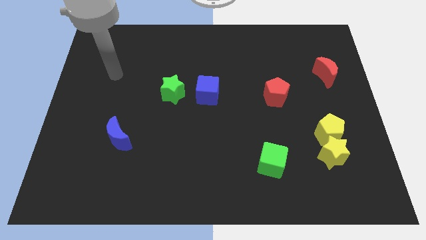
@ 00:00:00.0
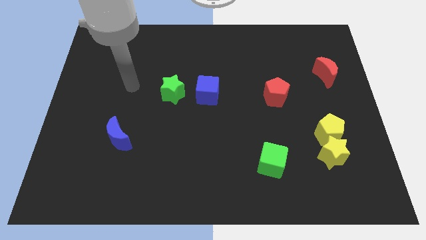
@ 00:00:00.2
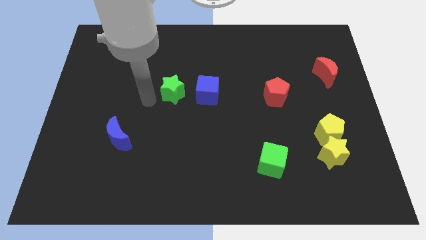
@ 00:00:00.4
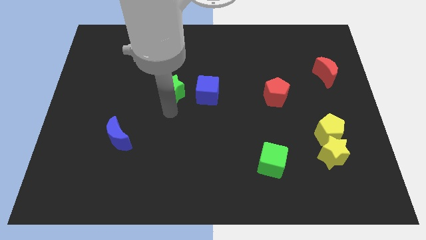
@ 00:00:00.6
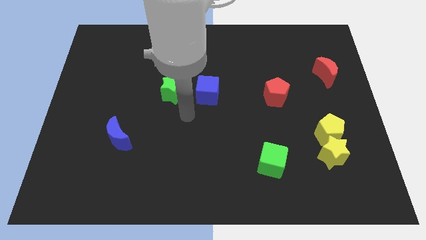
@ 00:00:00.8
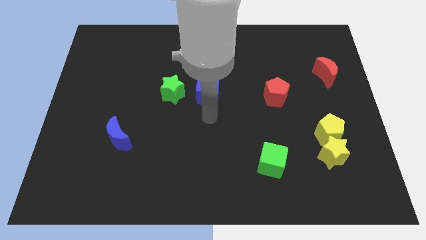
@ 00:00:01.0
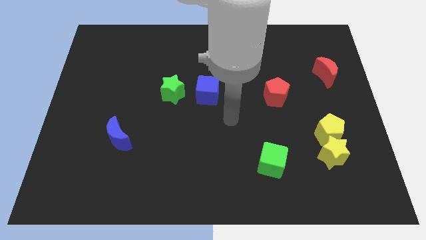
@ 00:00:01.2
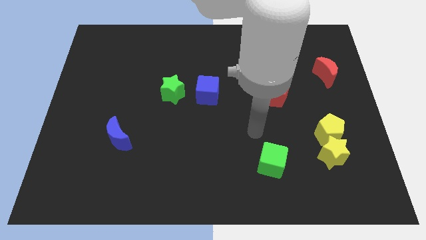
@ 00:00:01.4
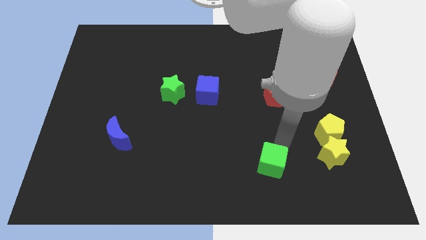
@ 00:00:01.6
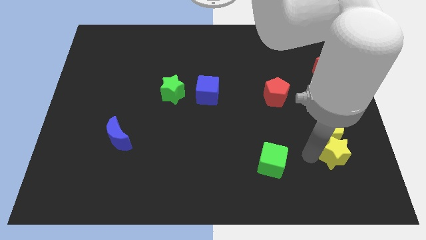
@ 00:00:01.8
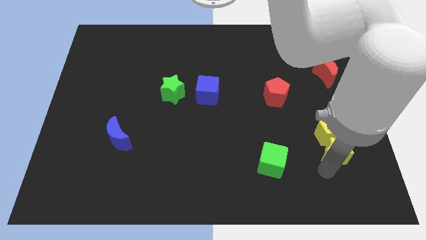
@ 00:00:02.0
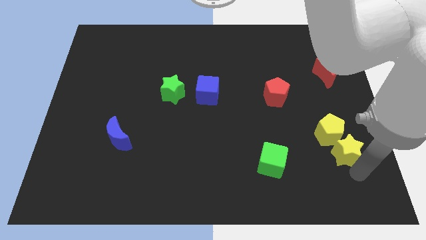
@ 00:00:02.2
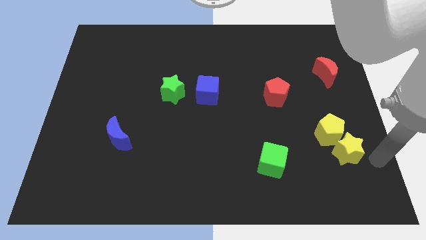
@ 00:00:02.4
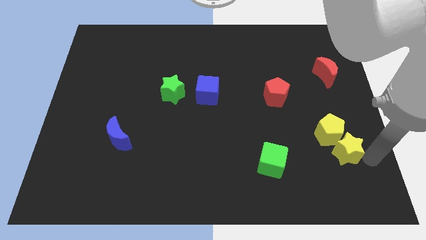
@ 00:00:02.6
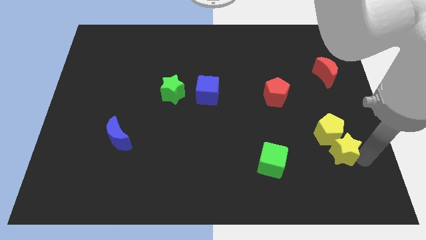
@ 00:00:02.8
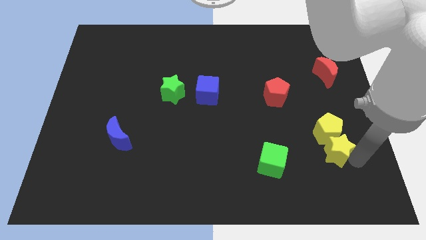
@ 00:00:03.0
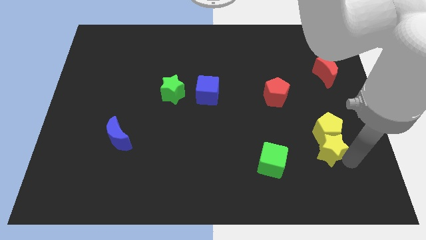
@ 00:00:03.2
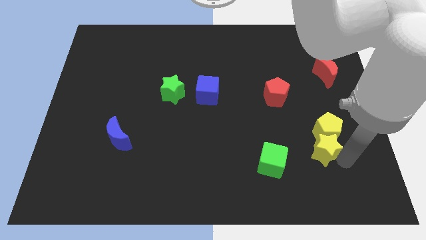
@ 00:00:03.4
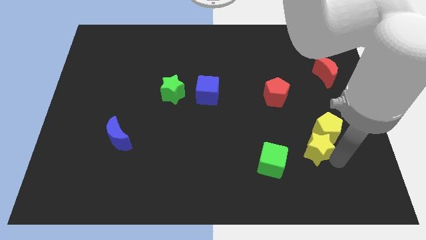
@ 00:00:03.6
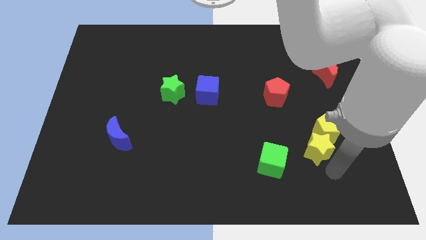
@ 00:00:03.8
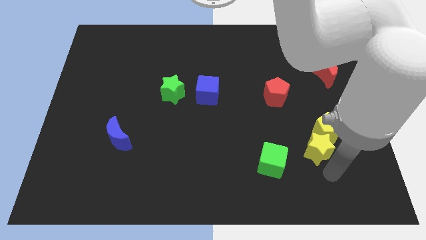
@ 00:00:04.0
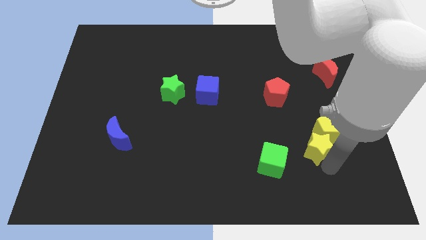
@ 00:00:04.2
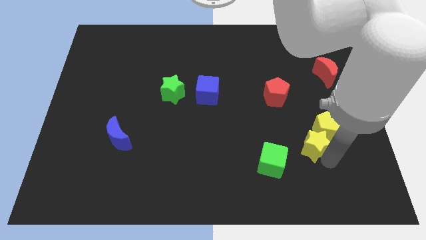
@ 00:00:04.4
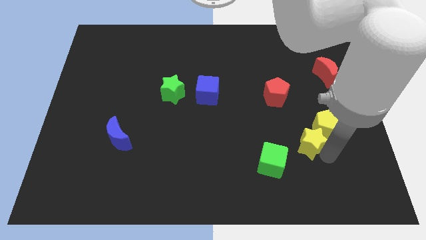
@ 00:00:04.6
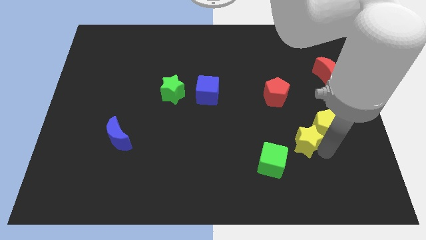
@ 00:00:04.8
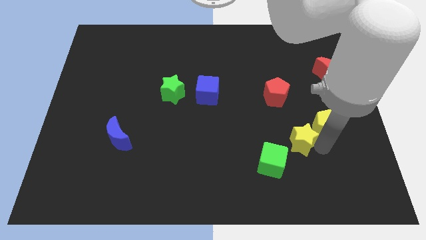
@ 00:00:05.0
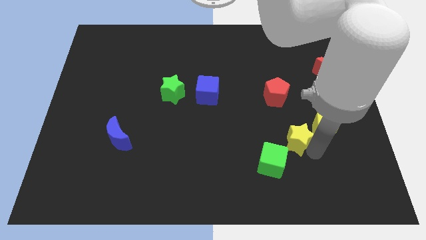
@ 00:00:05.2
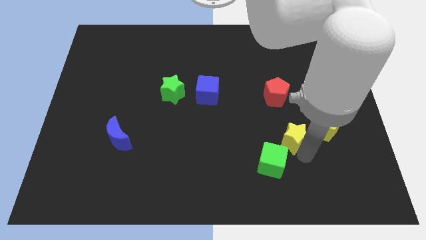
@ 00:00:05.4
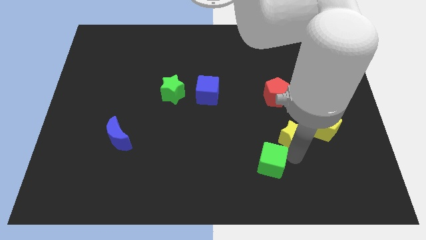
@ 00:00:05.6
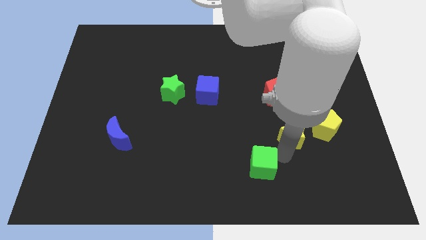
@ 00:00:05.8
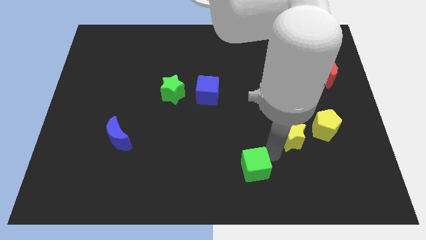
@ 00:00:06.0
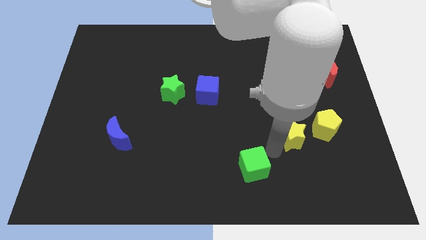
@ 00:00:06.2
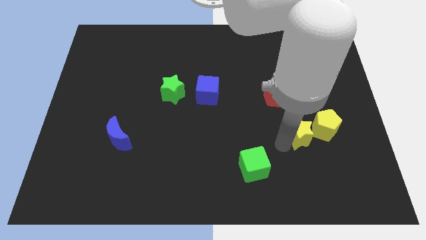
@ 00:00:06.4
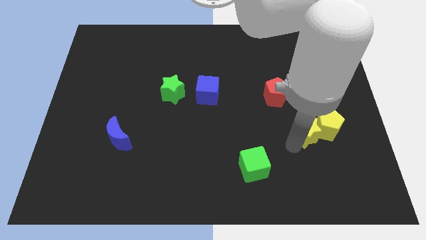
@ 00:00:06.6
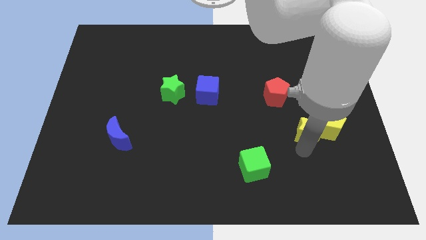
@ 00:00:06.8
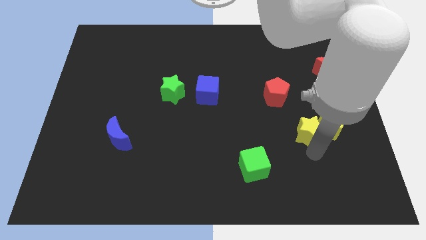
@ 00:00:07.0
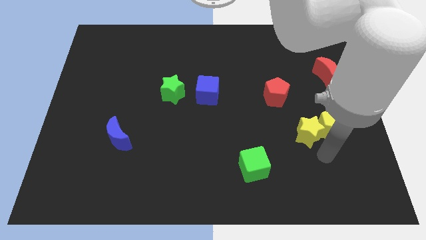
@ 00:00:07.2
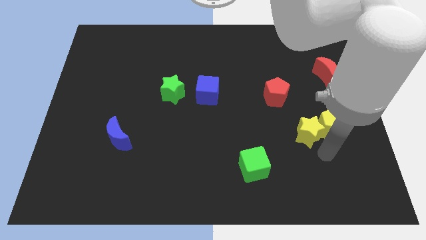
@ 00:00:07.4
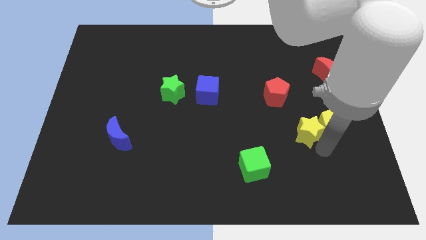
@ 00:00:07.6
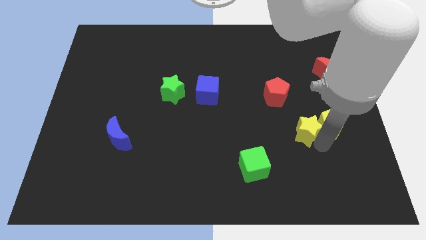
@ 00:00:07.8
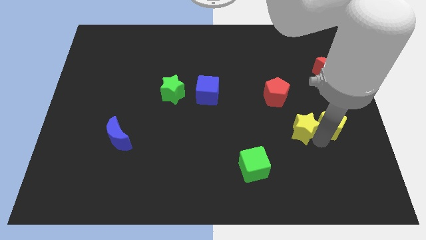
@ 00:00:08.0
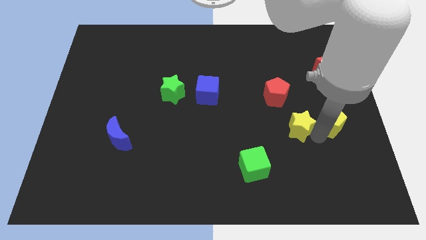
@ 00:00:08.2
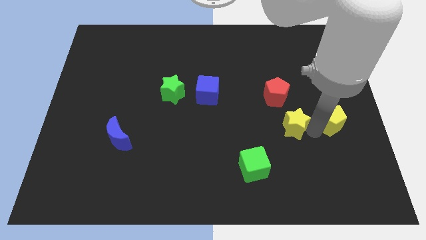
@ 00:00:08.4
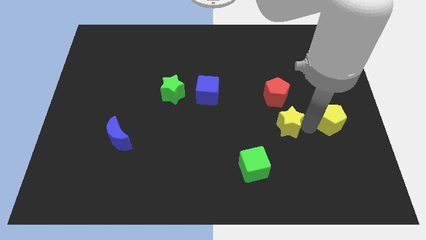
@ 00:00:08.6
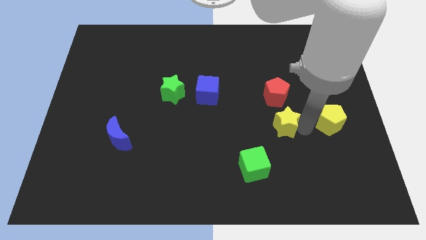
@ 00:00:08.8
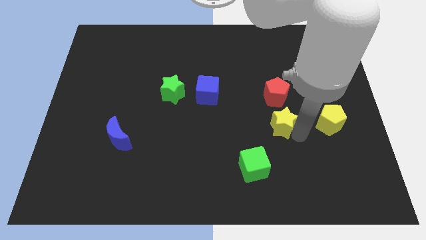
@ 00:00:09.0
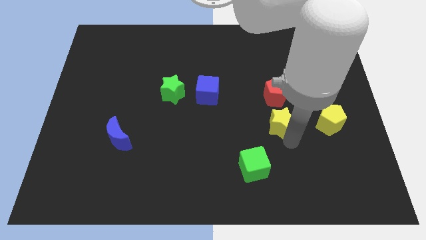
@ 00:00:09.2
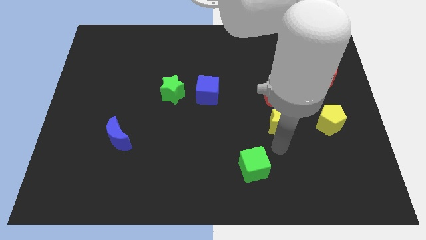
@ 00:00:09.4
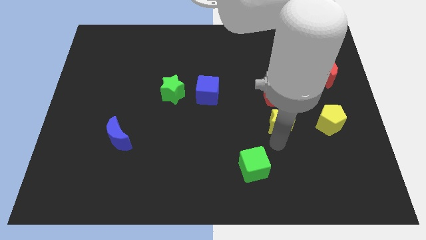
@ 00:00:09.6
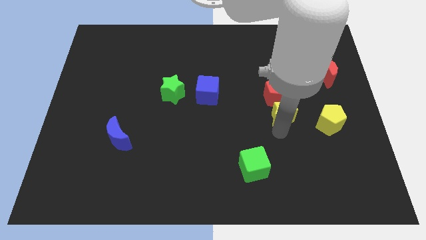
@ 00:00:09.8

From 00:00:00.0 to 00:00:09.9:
move the yellow star close to the red pentagon

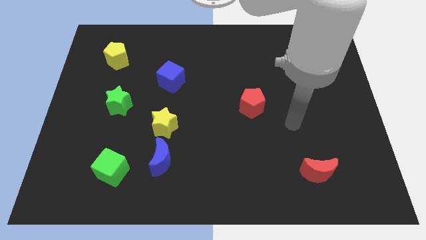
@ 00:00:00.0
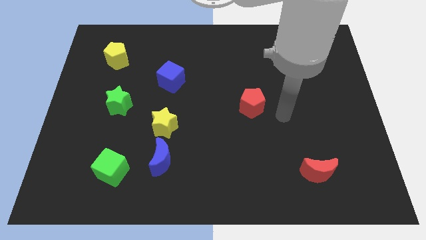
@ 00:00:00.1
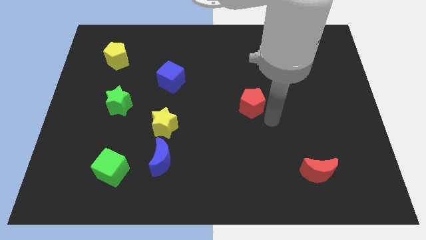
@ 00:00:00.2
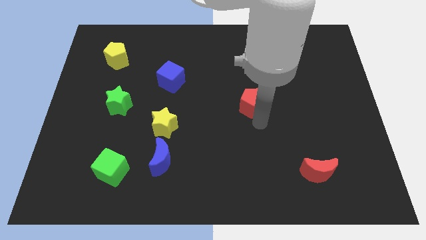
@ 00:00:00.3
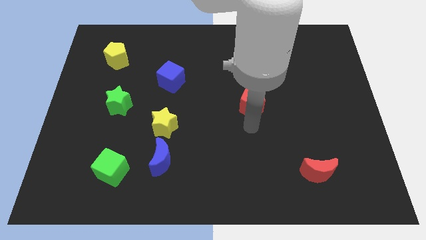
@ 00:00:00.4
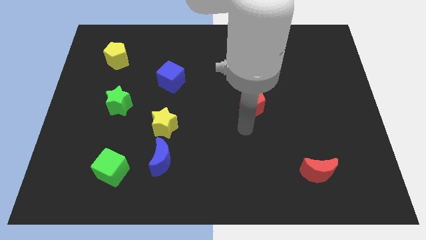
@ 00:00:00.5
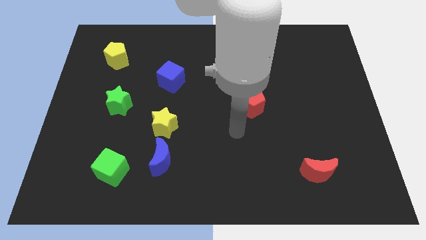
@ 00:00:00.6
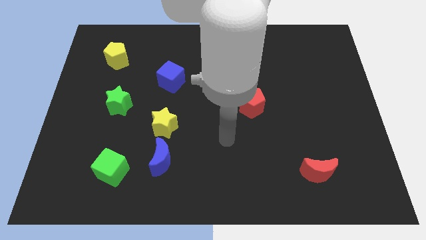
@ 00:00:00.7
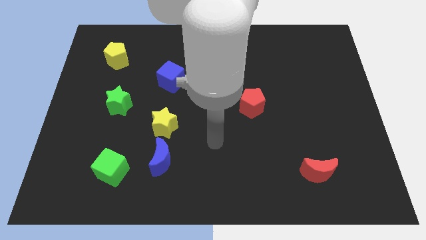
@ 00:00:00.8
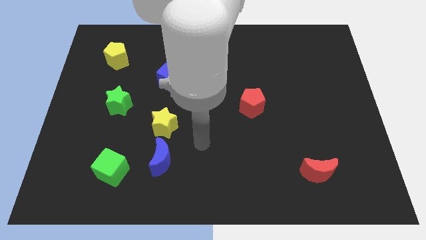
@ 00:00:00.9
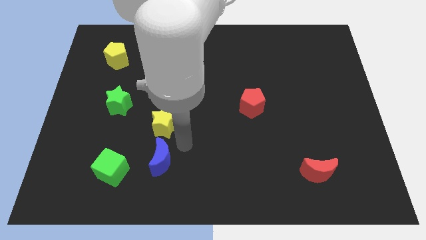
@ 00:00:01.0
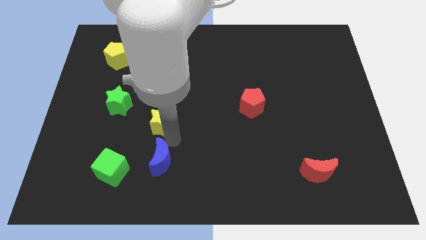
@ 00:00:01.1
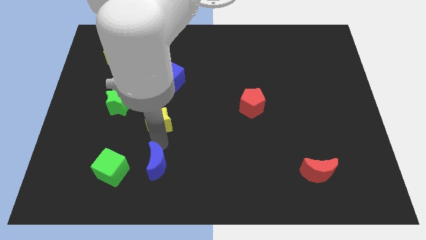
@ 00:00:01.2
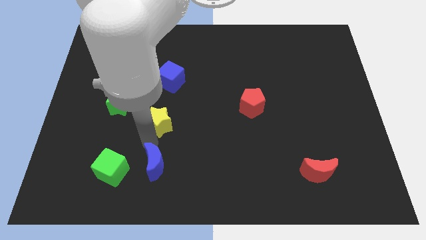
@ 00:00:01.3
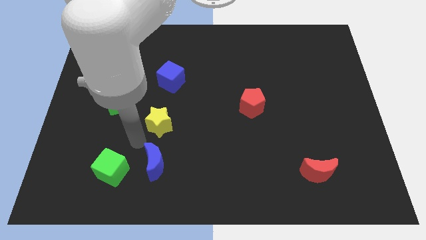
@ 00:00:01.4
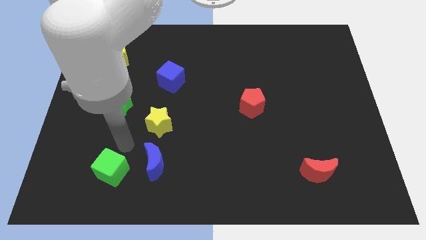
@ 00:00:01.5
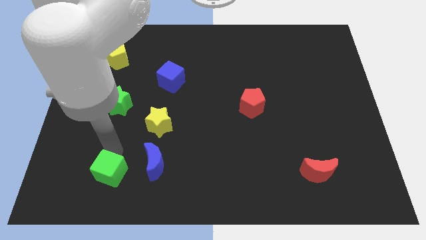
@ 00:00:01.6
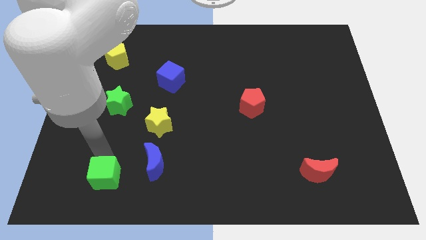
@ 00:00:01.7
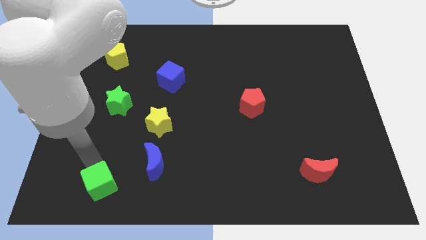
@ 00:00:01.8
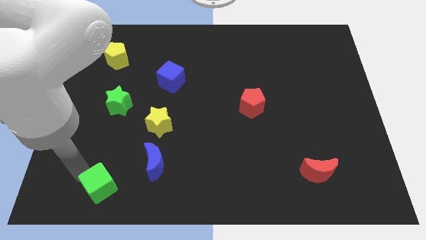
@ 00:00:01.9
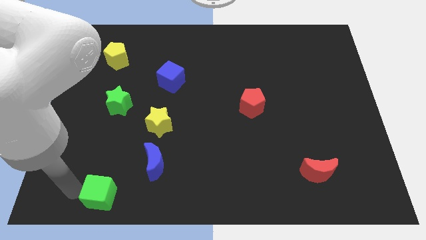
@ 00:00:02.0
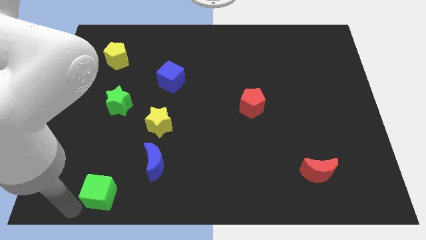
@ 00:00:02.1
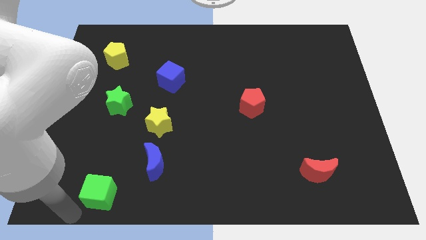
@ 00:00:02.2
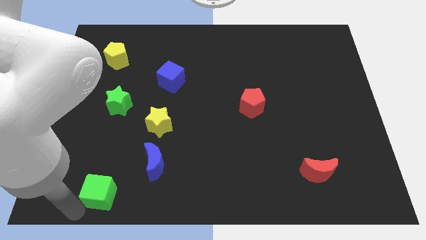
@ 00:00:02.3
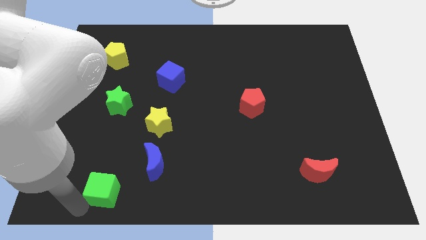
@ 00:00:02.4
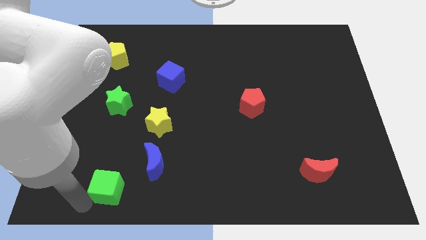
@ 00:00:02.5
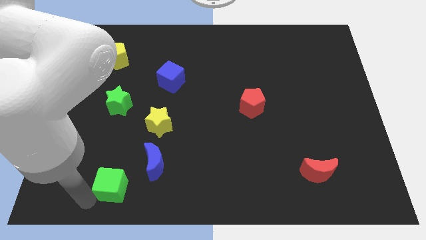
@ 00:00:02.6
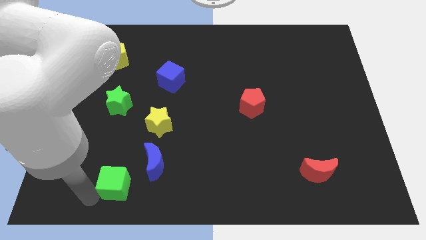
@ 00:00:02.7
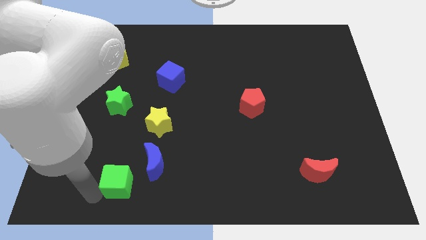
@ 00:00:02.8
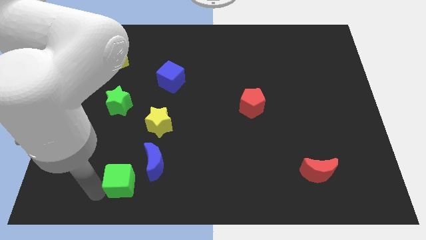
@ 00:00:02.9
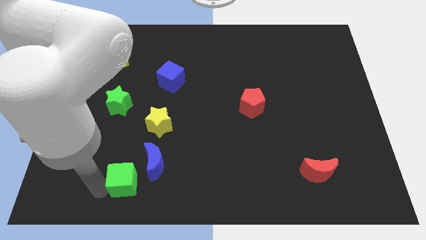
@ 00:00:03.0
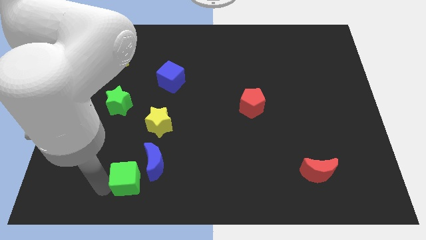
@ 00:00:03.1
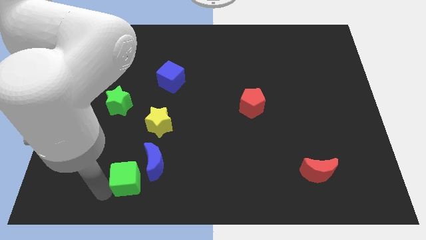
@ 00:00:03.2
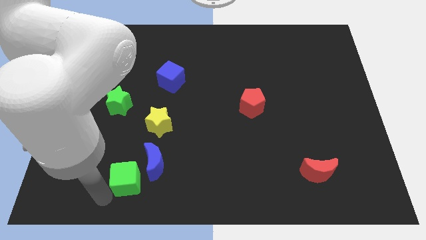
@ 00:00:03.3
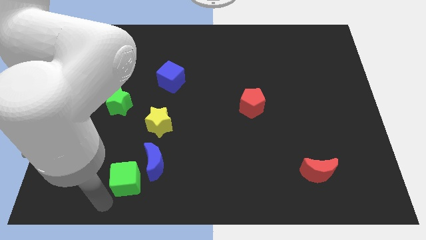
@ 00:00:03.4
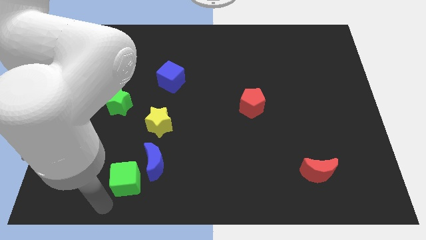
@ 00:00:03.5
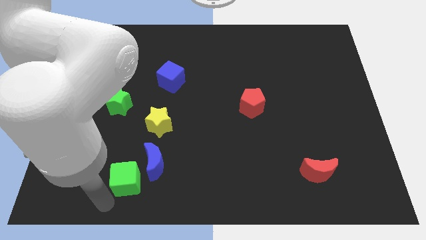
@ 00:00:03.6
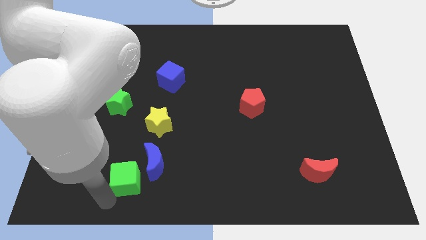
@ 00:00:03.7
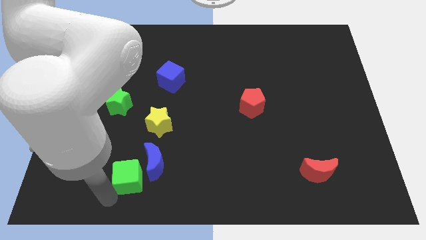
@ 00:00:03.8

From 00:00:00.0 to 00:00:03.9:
move the green cube towards the blue moon
